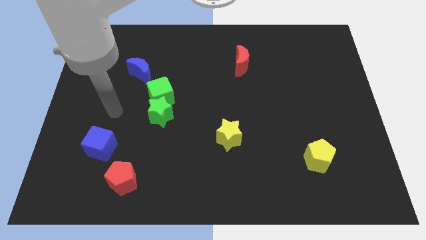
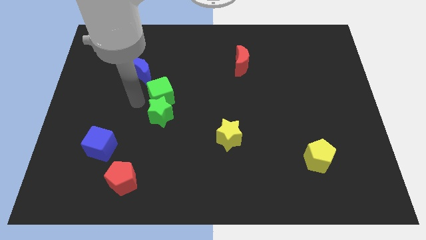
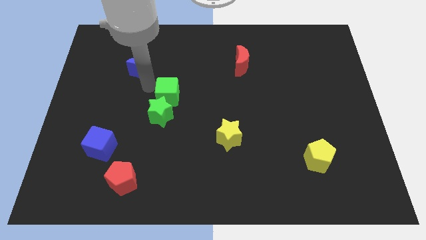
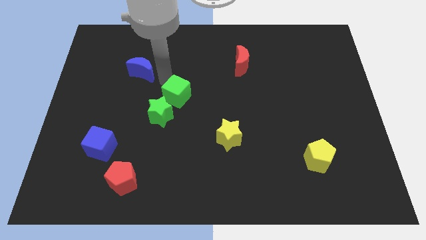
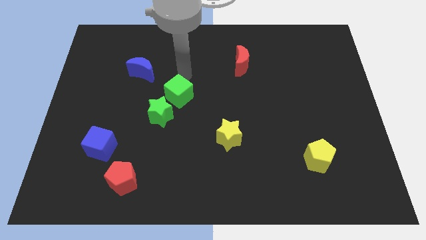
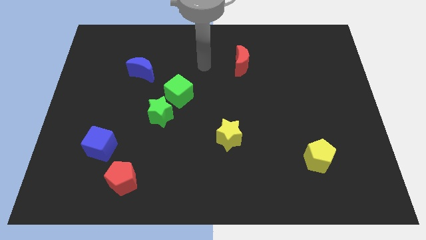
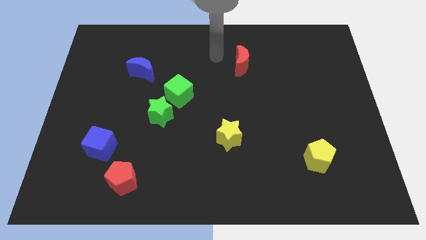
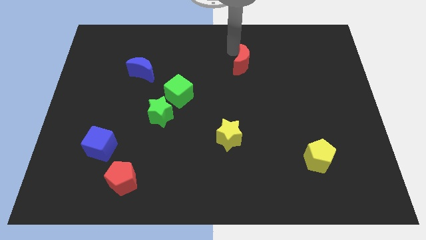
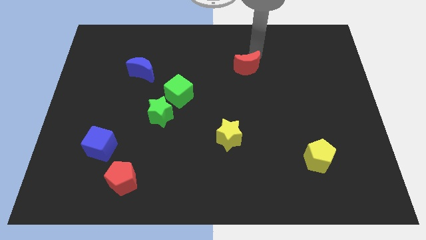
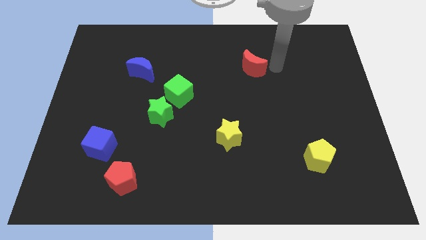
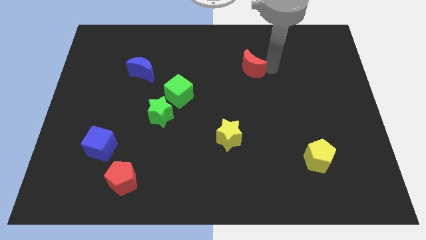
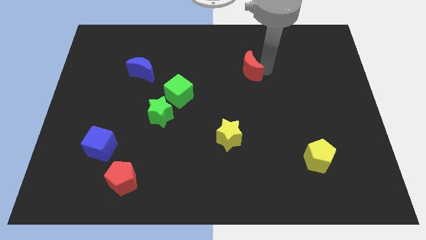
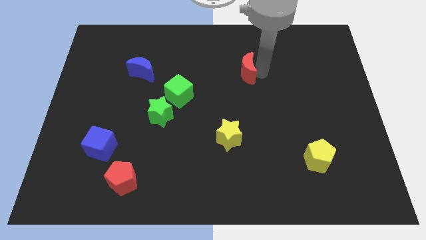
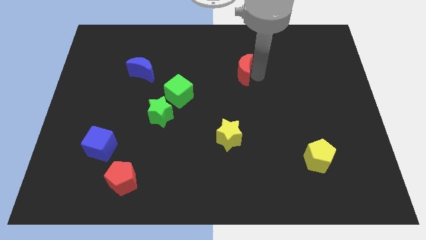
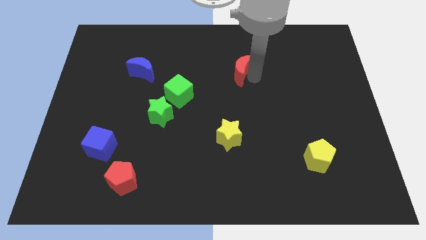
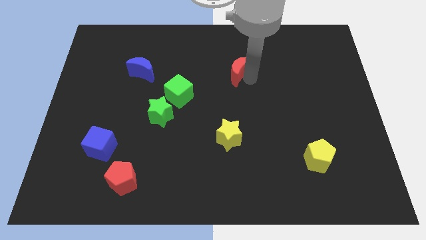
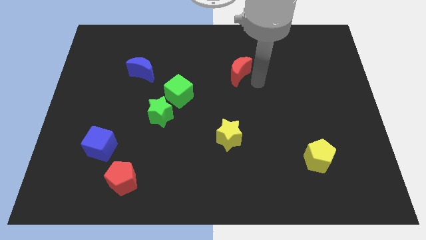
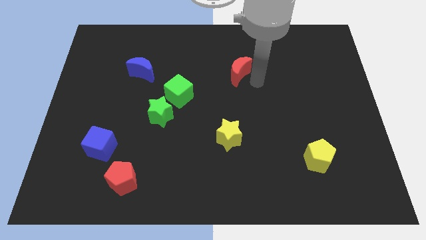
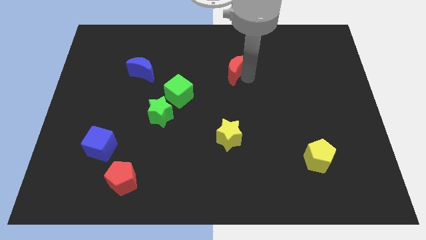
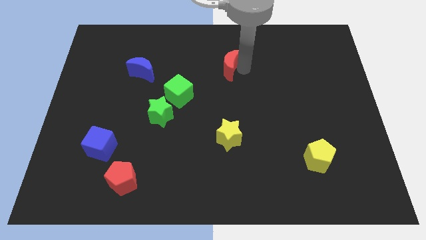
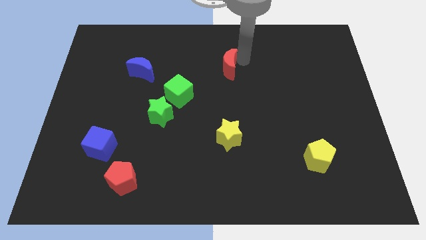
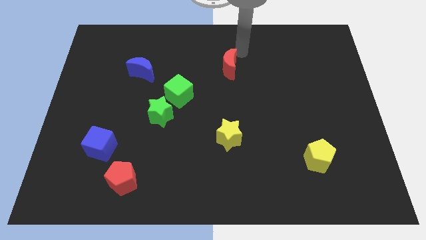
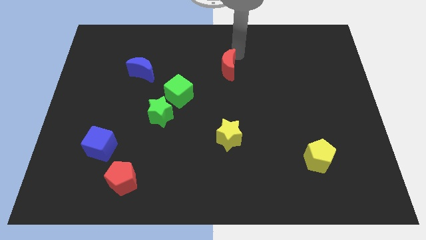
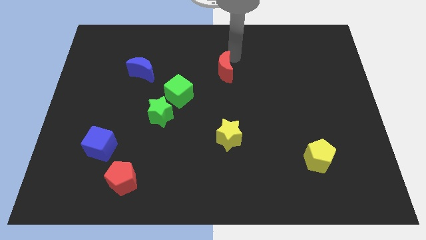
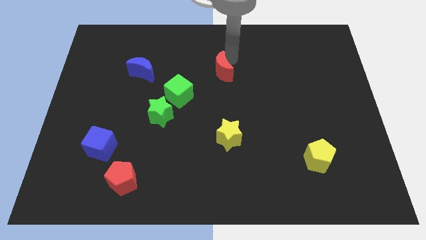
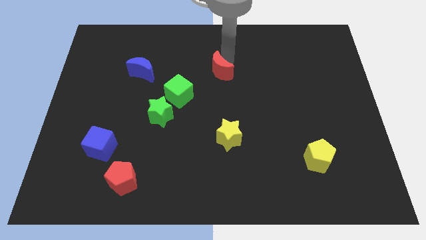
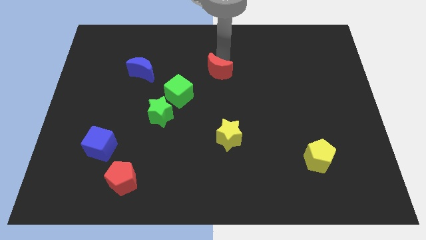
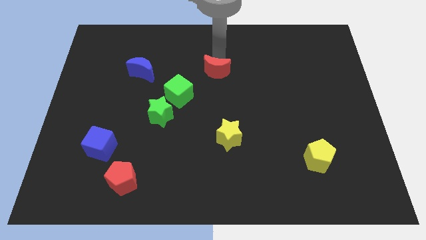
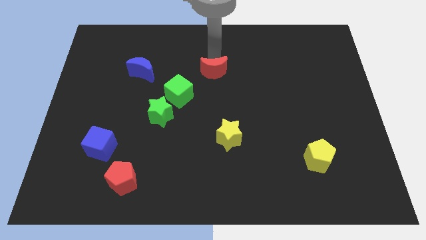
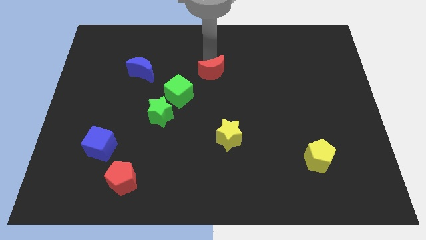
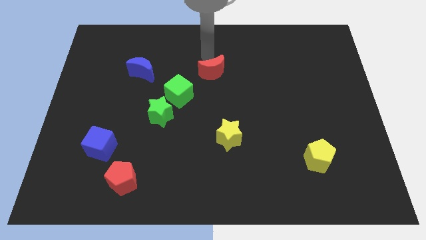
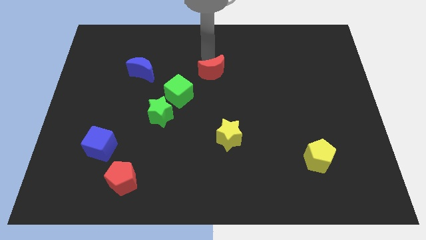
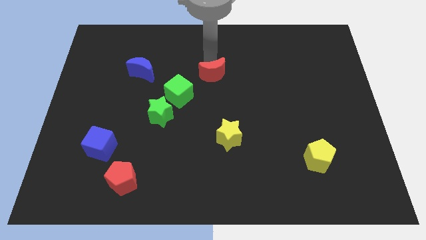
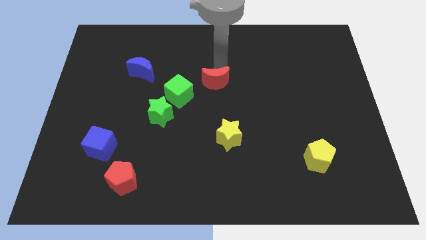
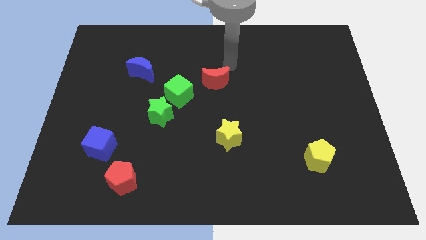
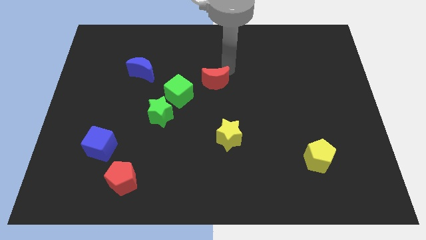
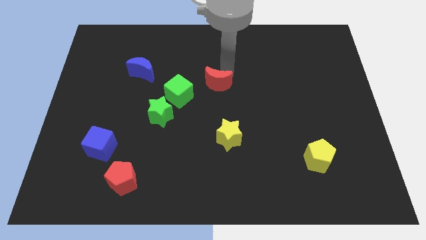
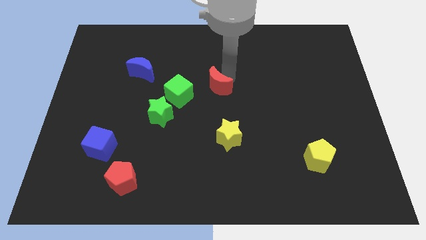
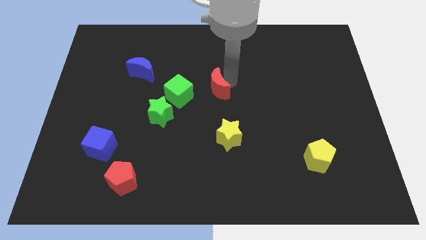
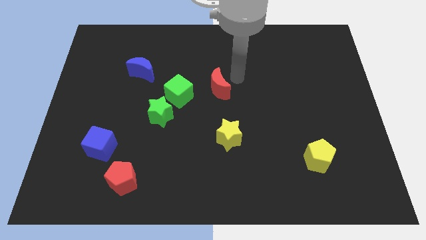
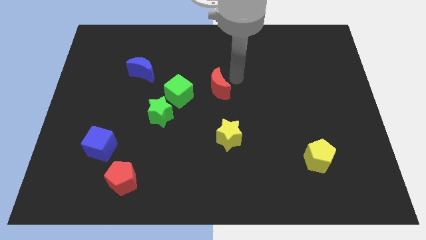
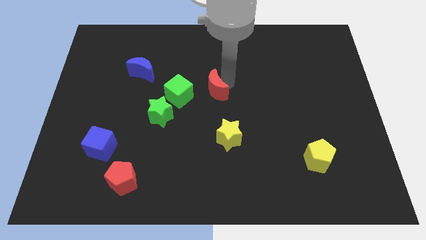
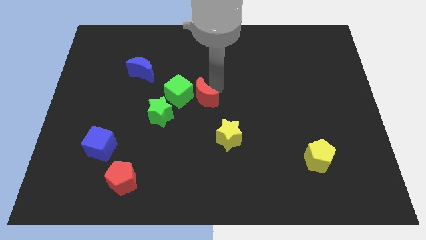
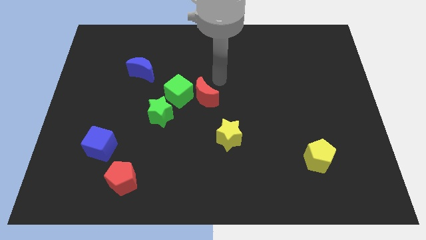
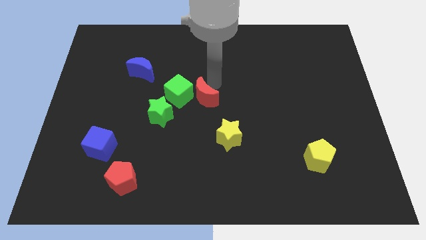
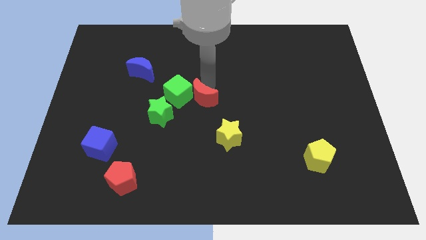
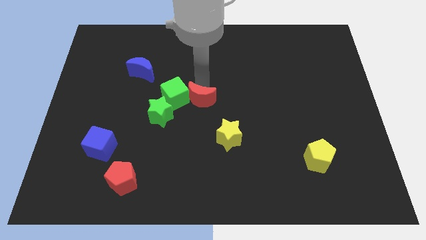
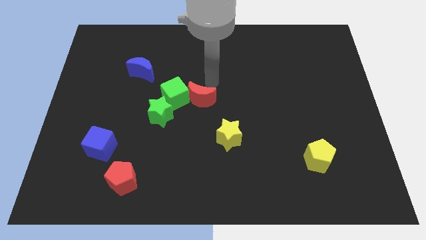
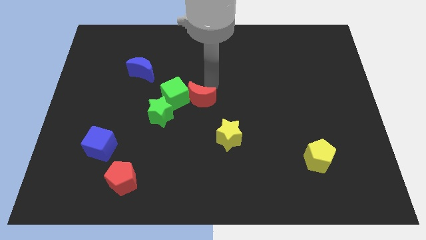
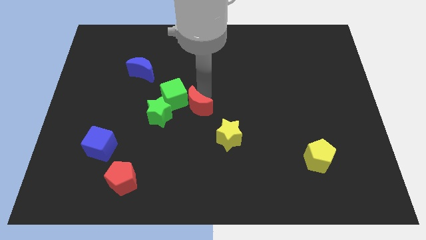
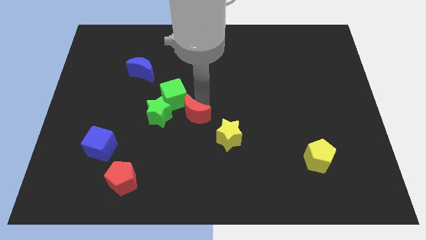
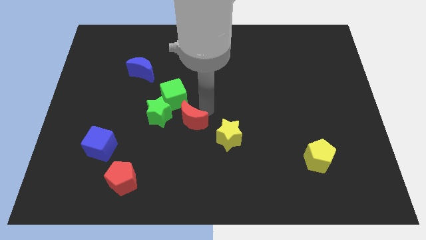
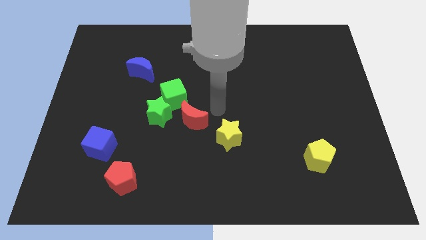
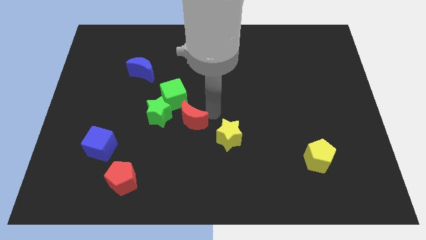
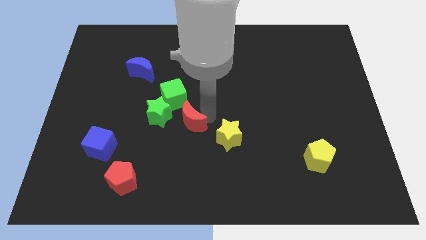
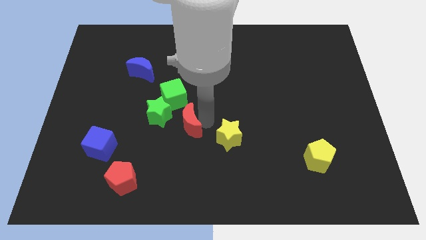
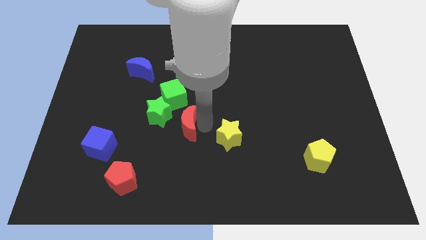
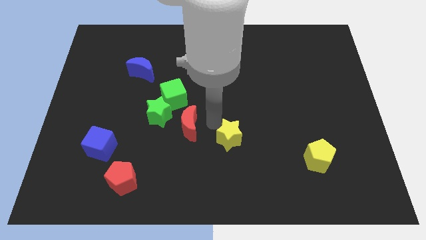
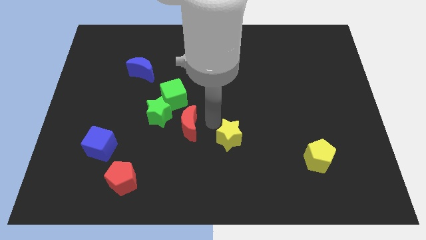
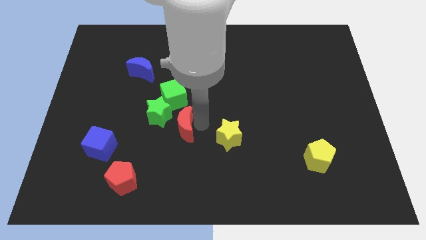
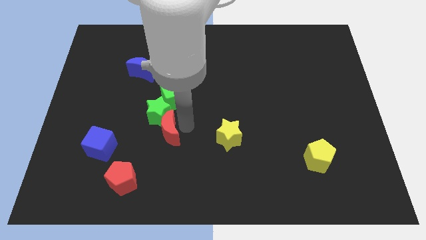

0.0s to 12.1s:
push the red moon to the right of the blue cube

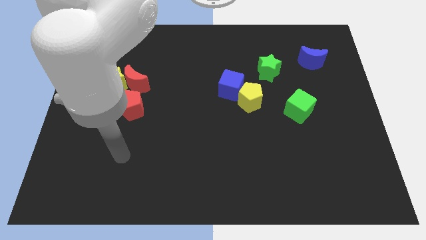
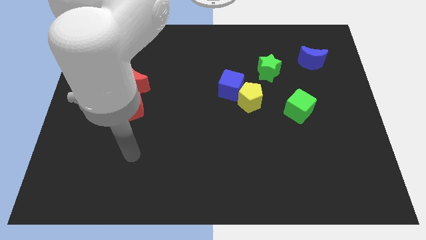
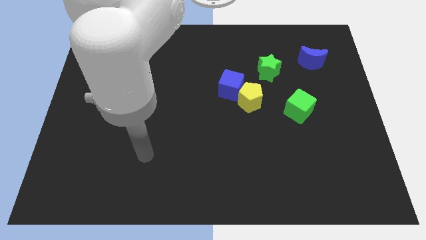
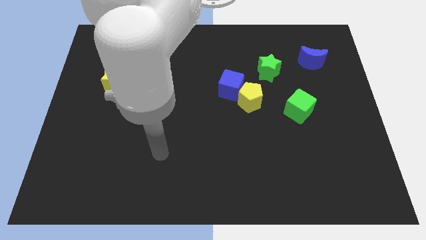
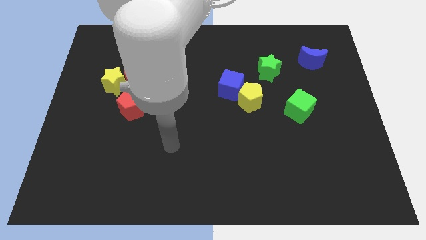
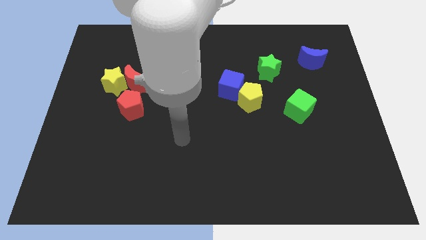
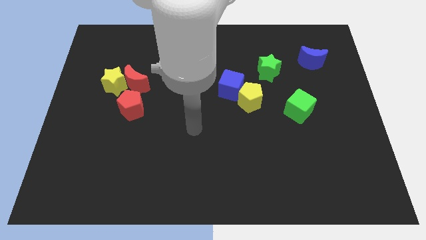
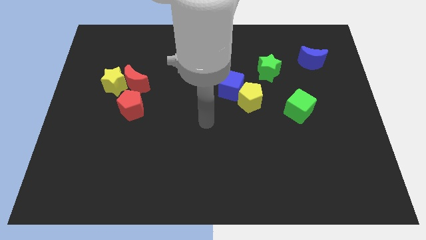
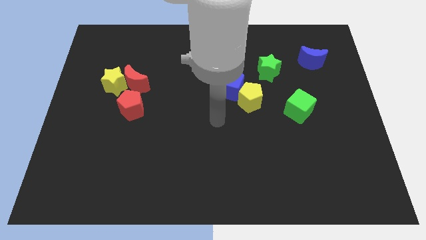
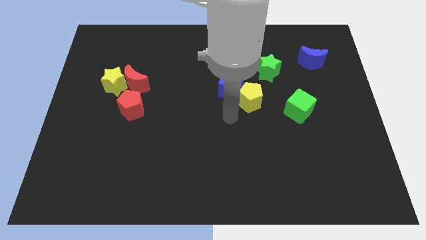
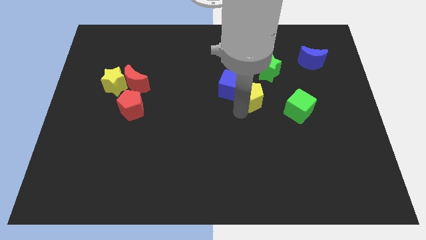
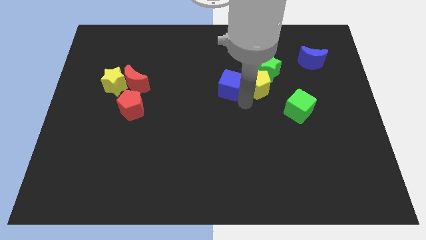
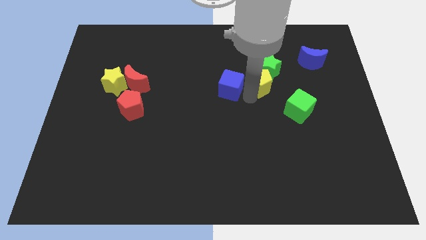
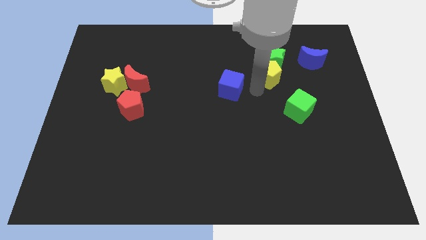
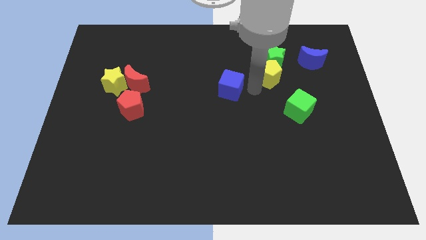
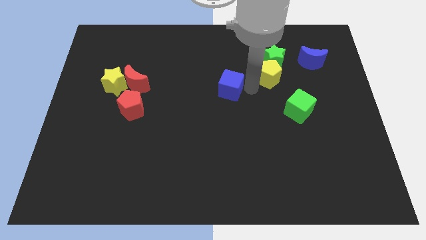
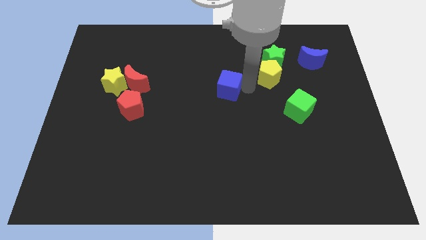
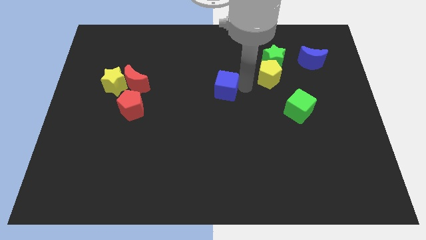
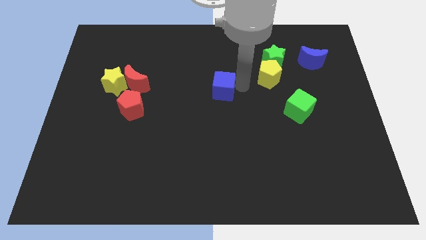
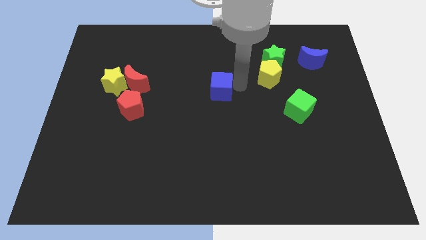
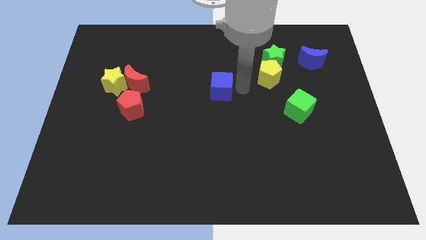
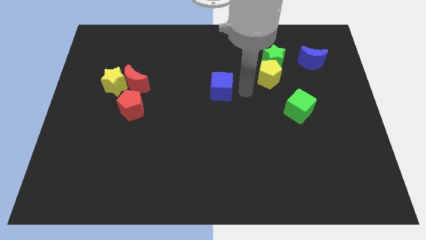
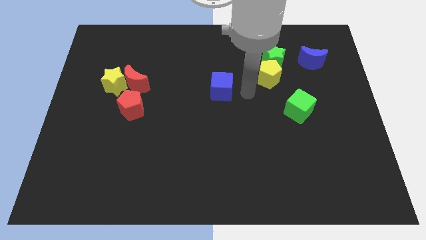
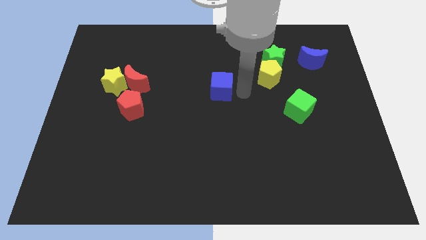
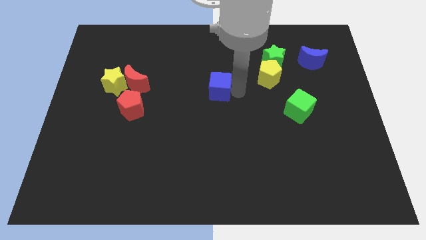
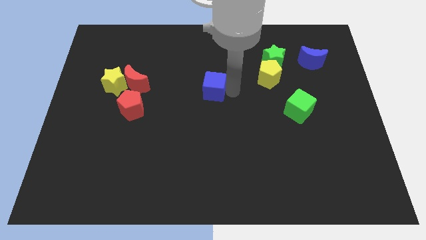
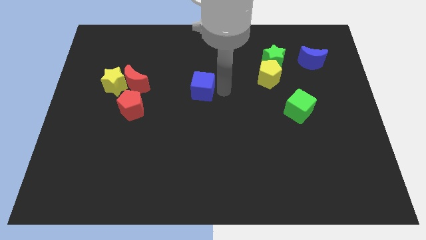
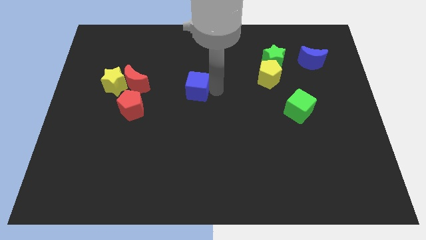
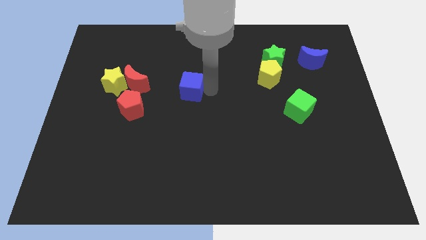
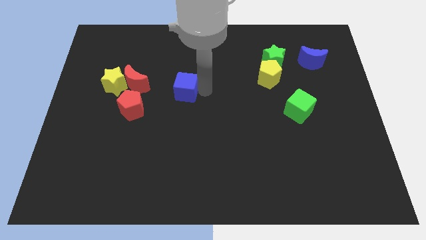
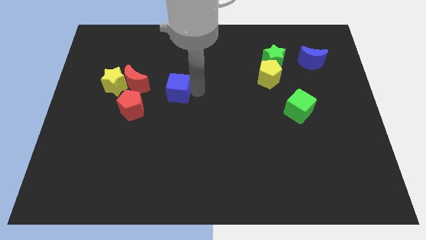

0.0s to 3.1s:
put the blue cube to the right side of the yellow star
